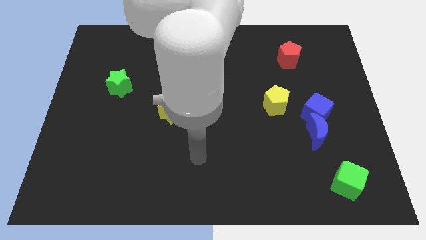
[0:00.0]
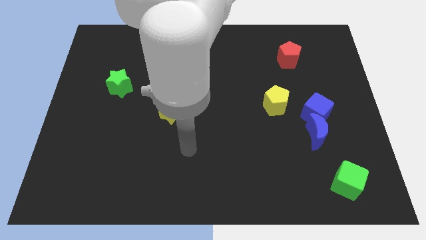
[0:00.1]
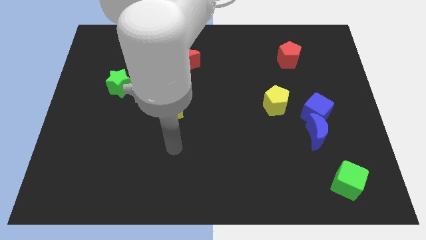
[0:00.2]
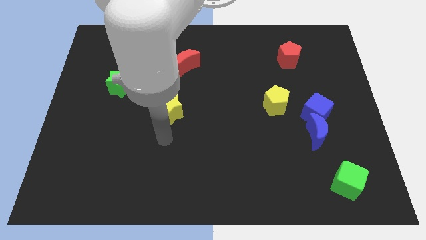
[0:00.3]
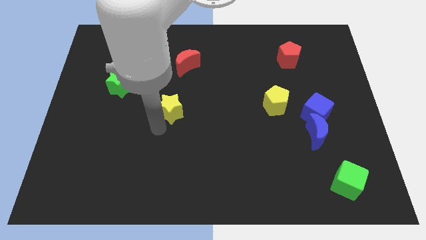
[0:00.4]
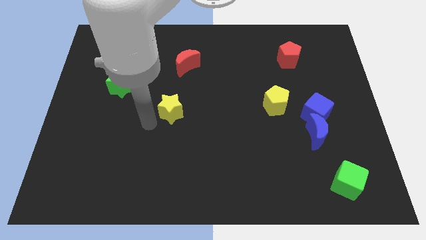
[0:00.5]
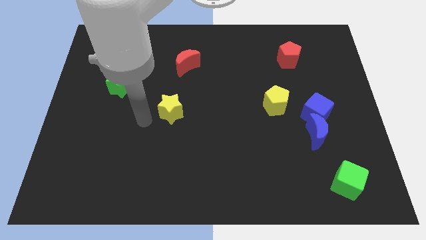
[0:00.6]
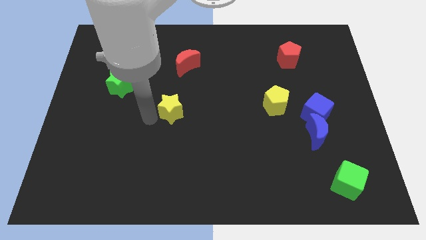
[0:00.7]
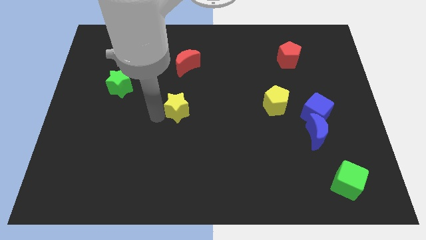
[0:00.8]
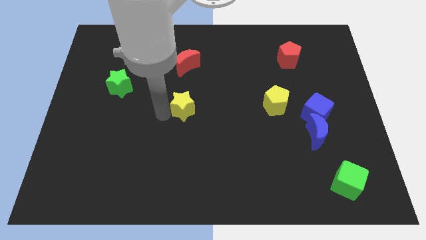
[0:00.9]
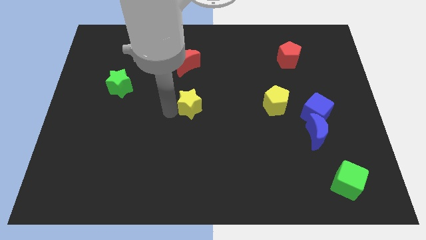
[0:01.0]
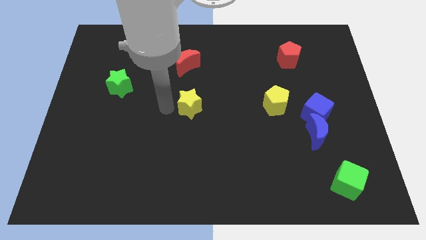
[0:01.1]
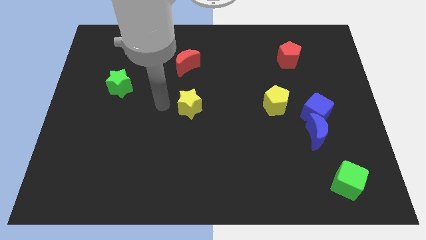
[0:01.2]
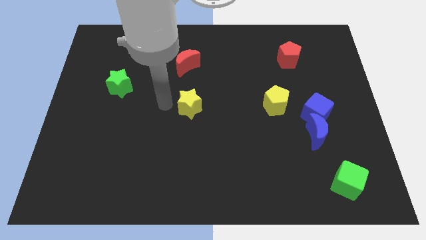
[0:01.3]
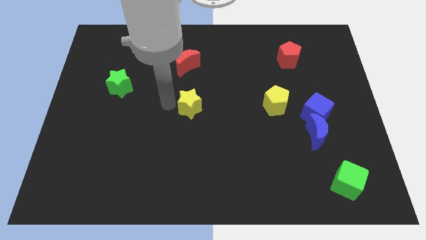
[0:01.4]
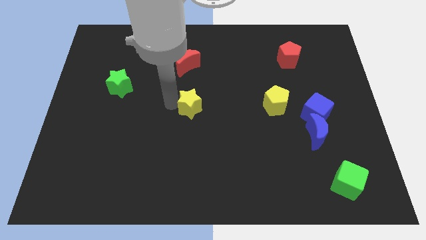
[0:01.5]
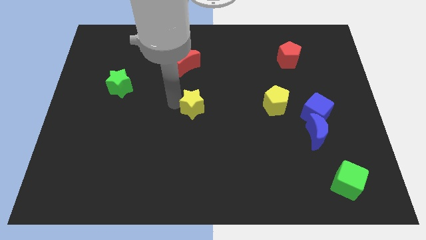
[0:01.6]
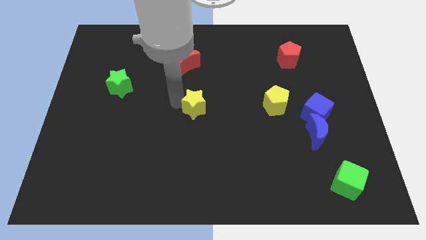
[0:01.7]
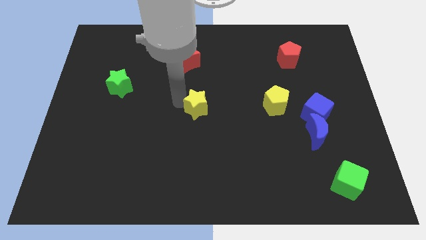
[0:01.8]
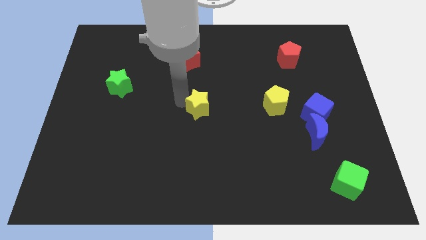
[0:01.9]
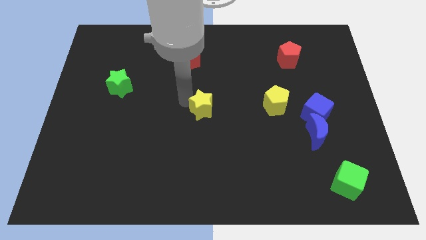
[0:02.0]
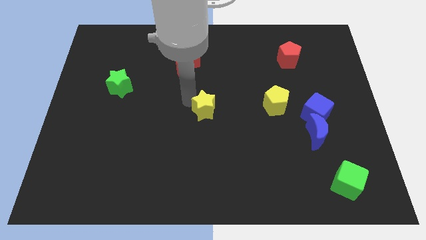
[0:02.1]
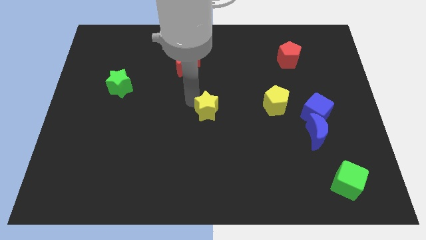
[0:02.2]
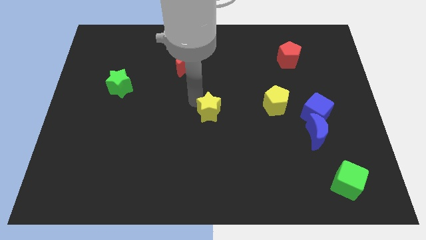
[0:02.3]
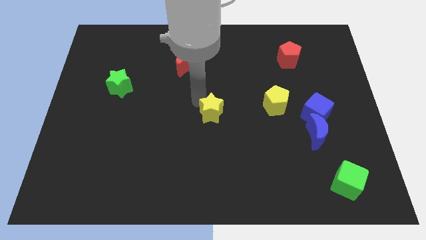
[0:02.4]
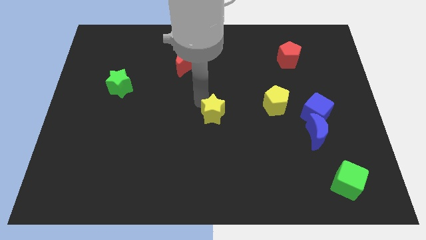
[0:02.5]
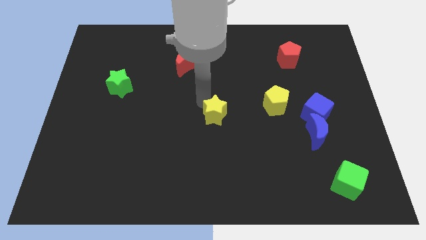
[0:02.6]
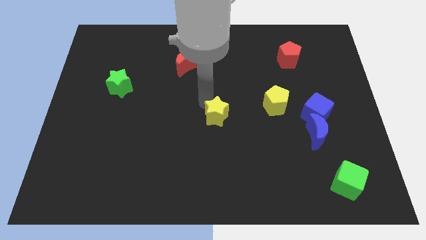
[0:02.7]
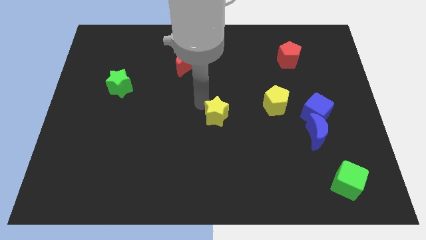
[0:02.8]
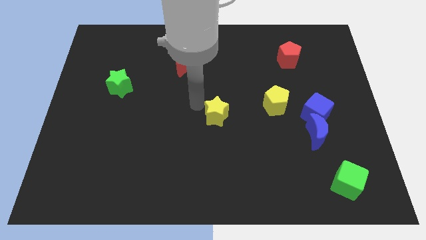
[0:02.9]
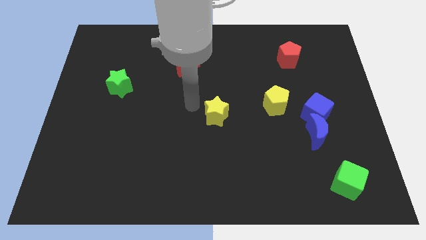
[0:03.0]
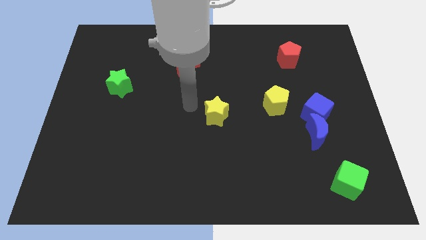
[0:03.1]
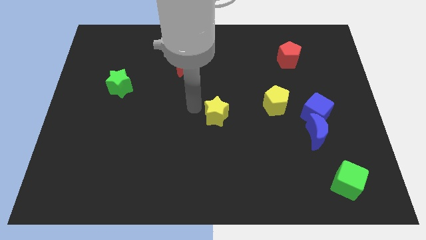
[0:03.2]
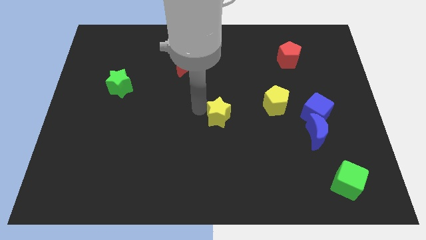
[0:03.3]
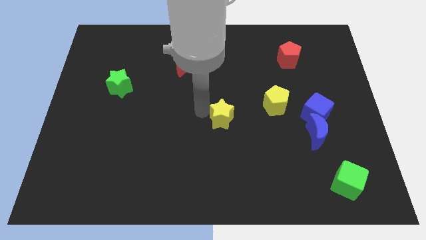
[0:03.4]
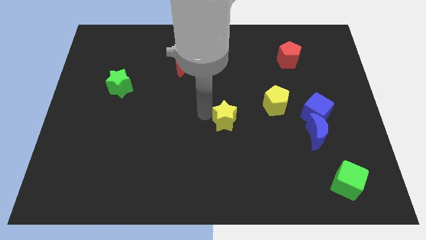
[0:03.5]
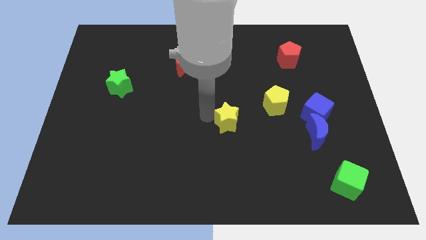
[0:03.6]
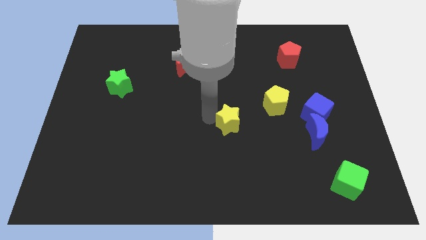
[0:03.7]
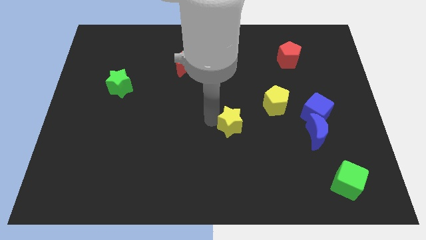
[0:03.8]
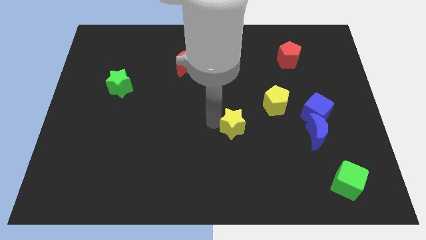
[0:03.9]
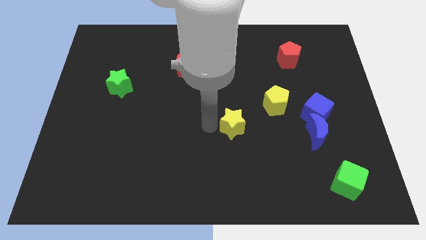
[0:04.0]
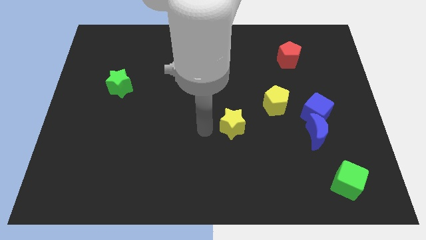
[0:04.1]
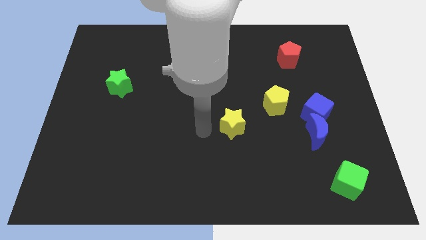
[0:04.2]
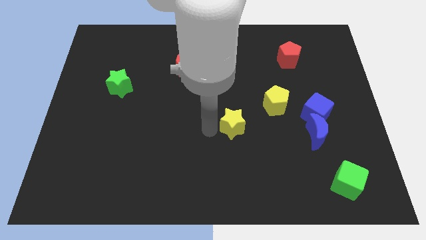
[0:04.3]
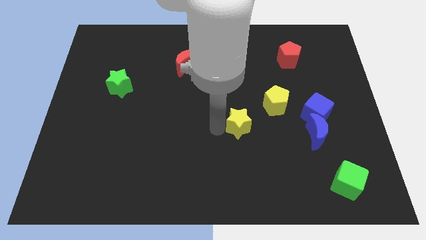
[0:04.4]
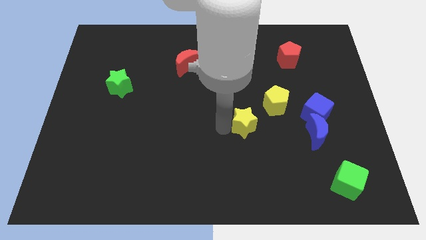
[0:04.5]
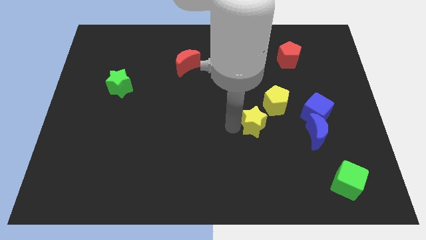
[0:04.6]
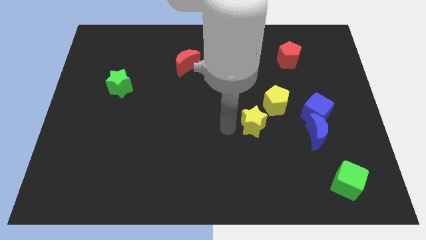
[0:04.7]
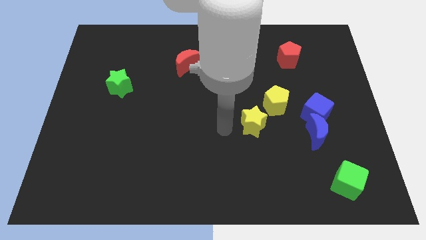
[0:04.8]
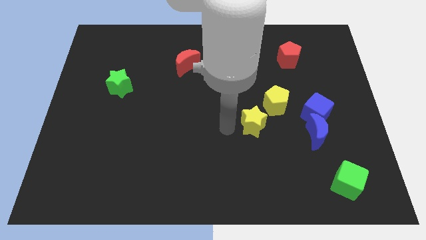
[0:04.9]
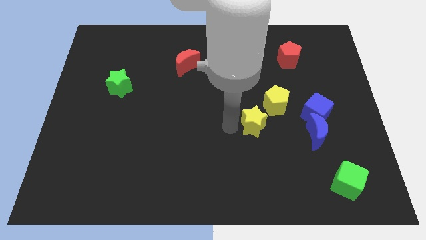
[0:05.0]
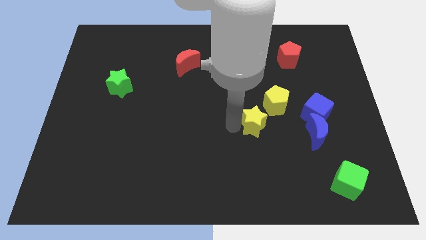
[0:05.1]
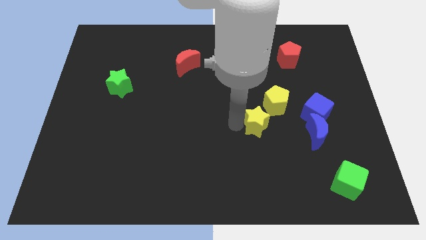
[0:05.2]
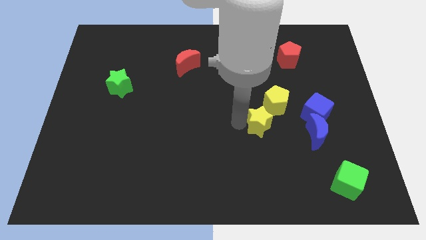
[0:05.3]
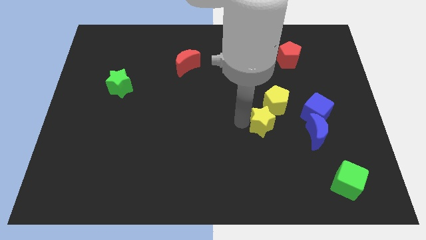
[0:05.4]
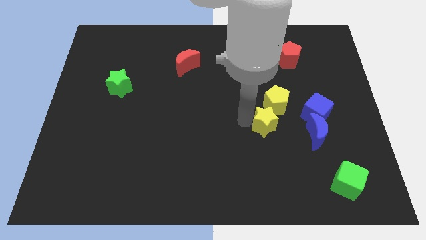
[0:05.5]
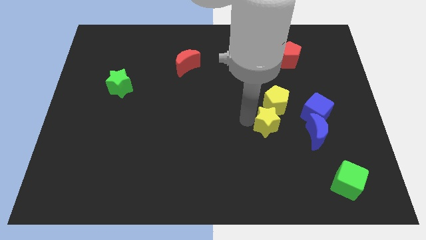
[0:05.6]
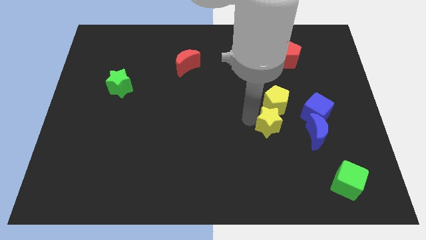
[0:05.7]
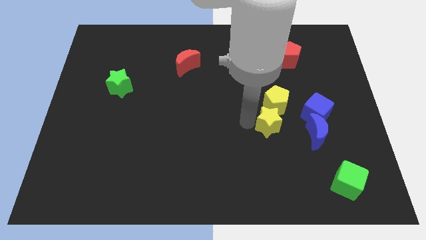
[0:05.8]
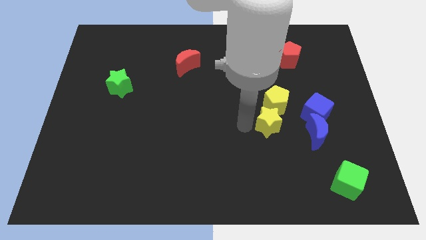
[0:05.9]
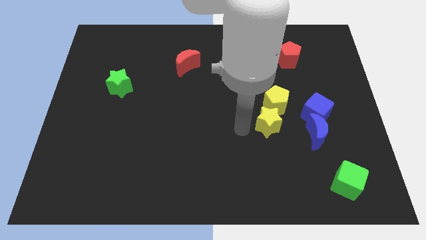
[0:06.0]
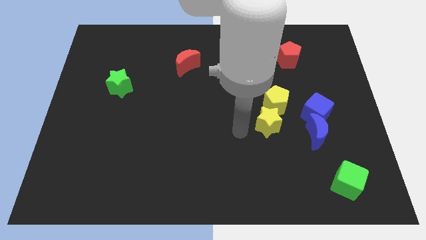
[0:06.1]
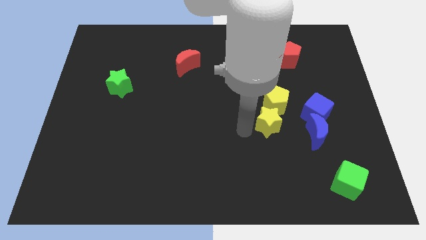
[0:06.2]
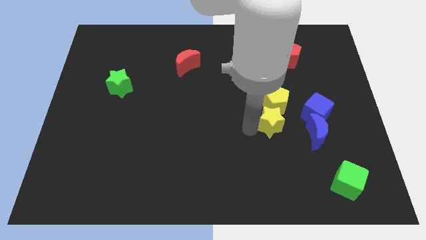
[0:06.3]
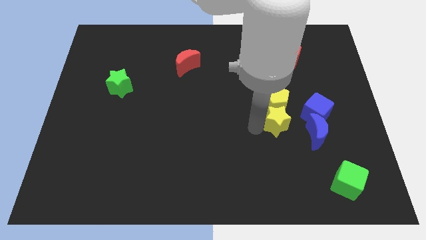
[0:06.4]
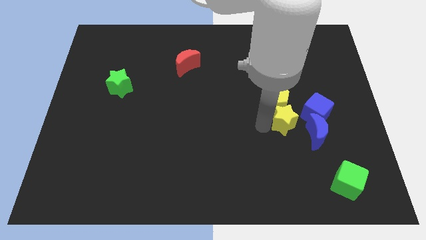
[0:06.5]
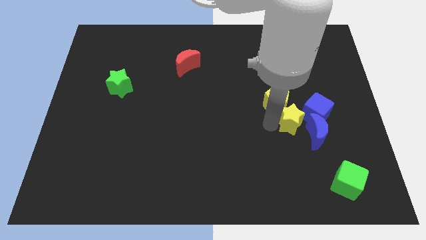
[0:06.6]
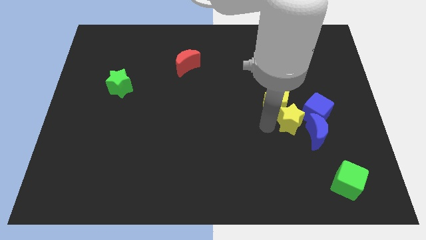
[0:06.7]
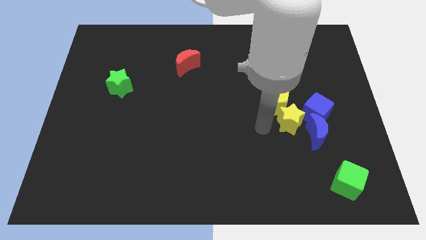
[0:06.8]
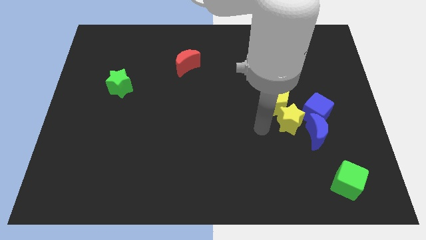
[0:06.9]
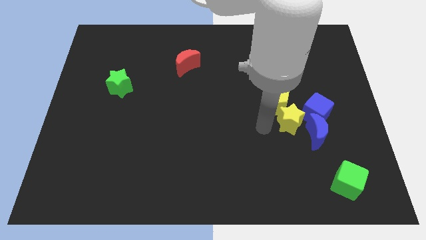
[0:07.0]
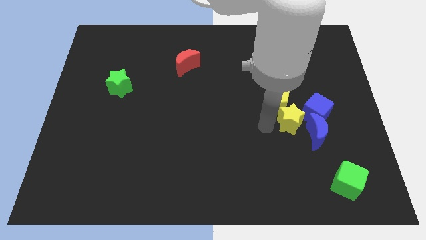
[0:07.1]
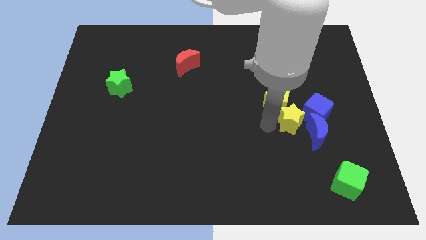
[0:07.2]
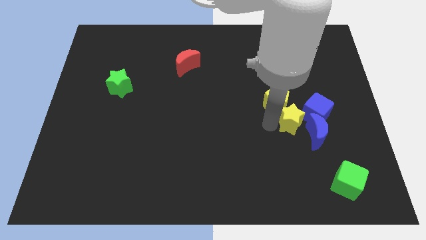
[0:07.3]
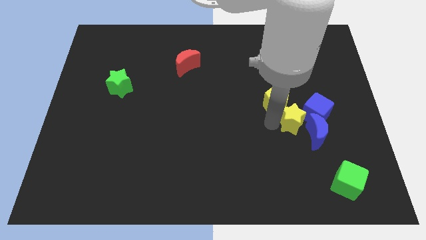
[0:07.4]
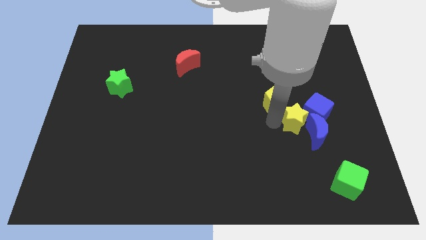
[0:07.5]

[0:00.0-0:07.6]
move the yellow star to the blue cube
